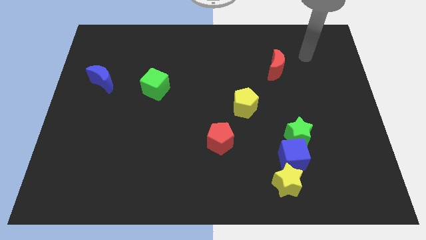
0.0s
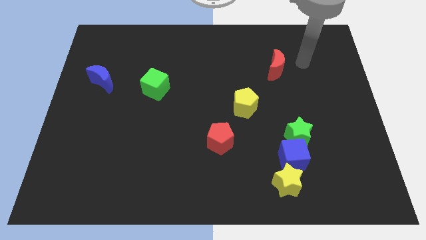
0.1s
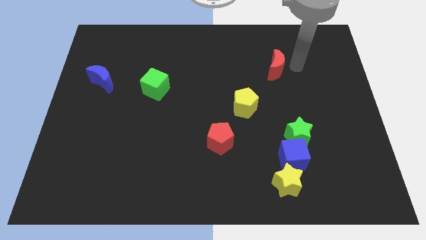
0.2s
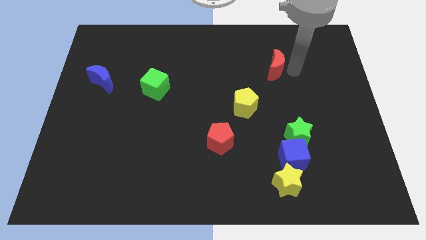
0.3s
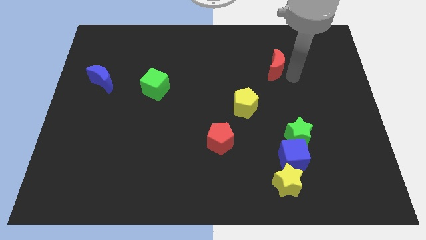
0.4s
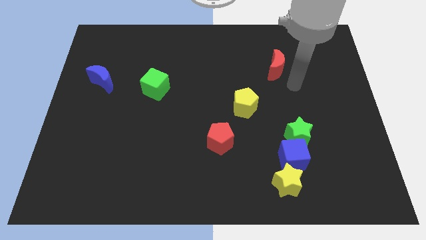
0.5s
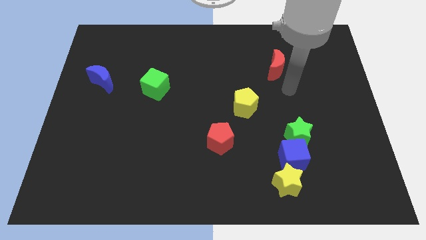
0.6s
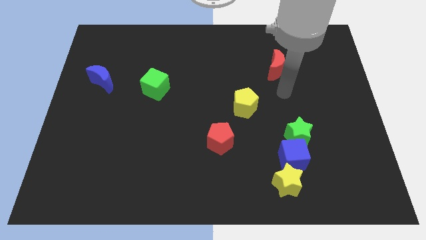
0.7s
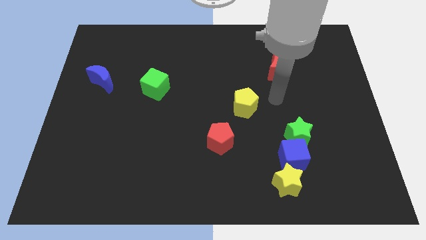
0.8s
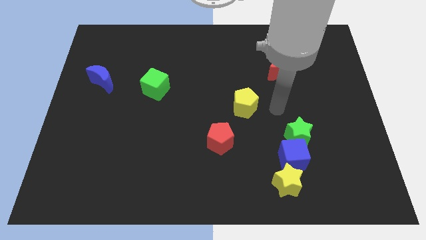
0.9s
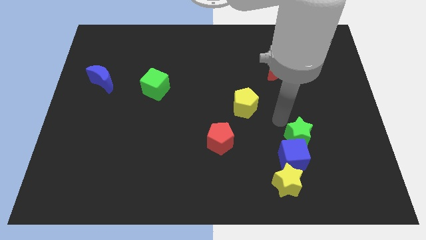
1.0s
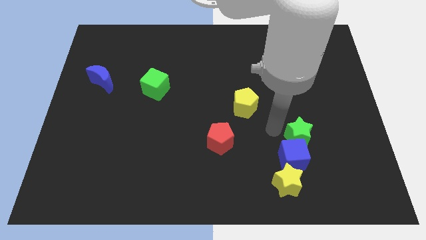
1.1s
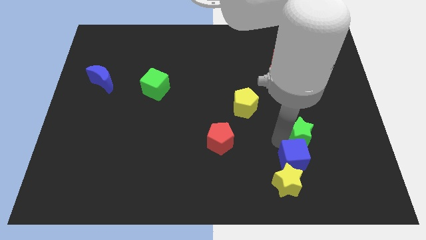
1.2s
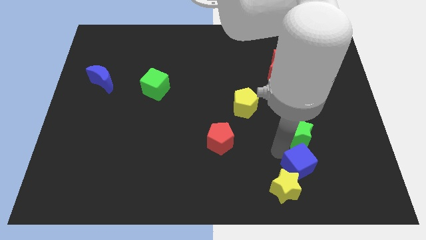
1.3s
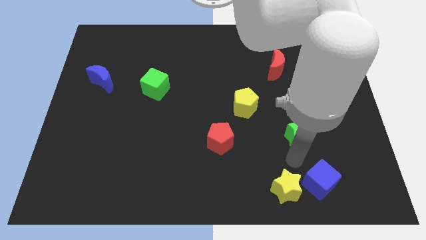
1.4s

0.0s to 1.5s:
move the green star away from the blue cube

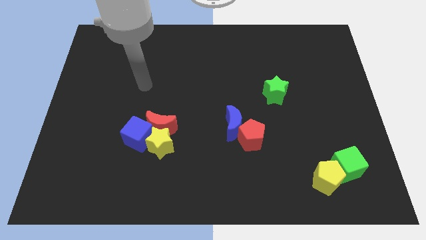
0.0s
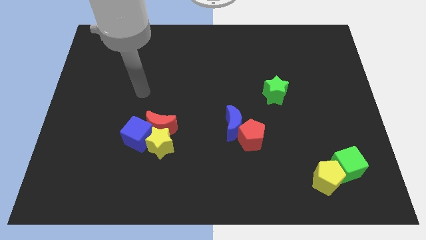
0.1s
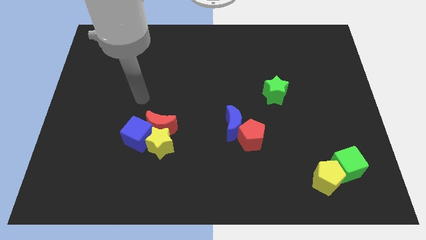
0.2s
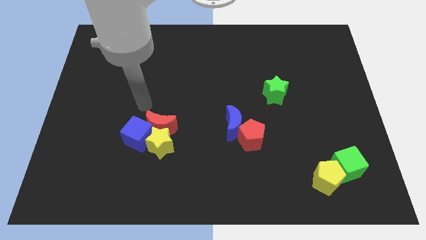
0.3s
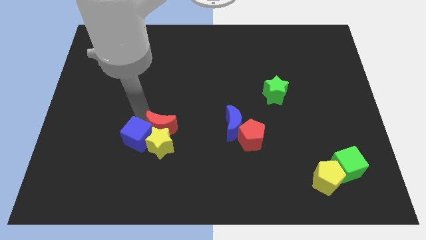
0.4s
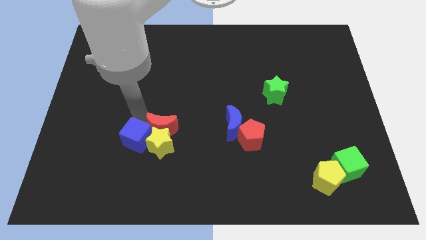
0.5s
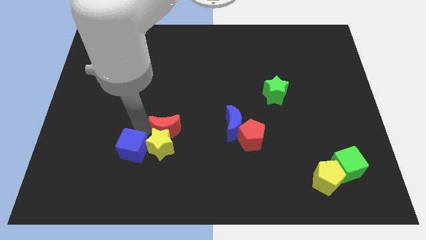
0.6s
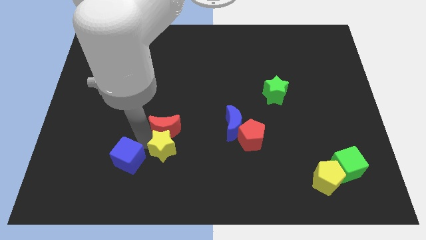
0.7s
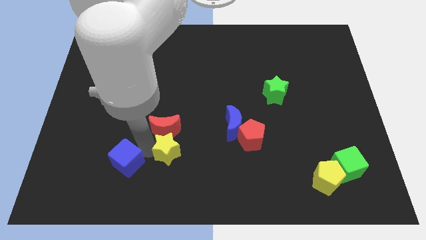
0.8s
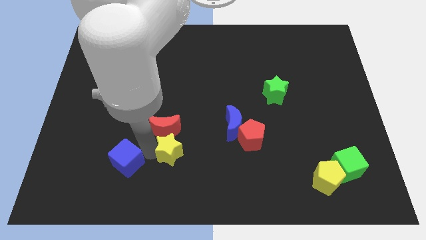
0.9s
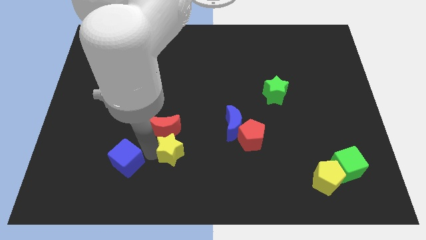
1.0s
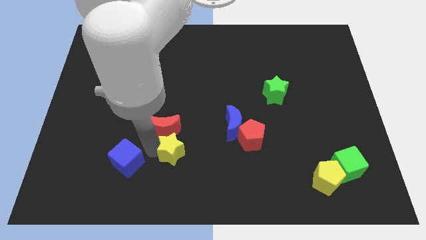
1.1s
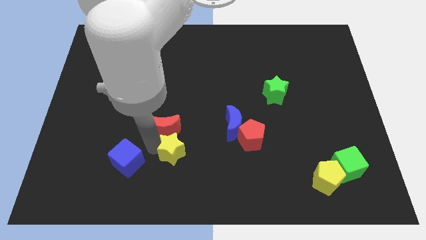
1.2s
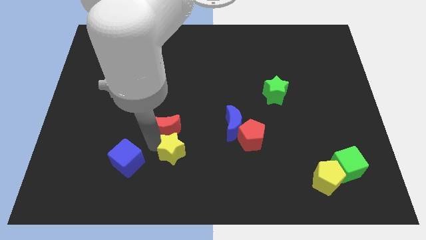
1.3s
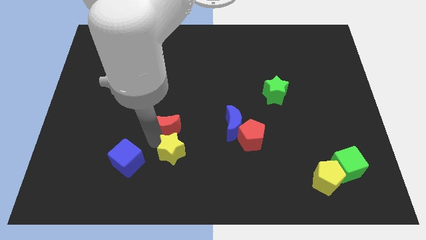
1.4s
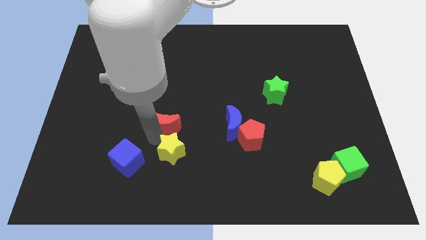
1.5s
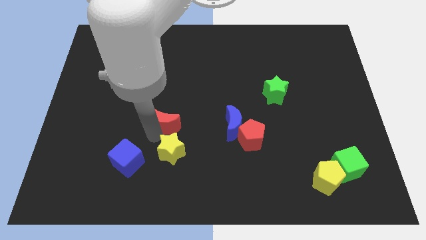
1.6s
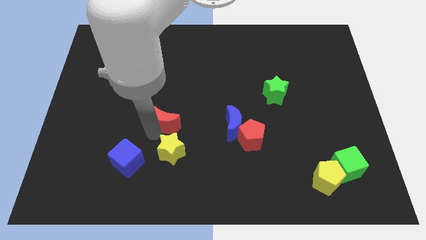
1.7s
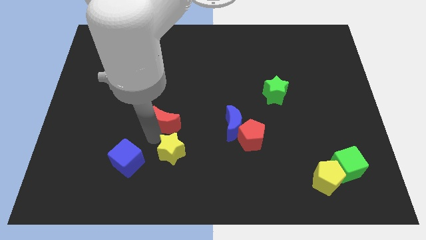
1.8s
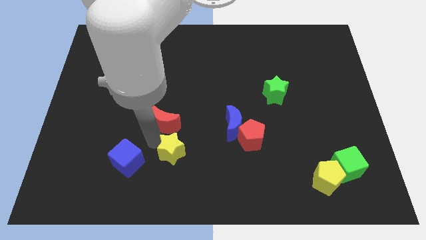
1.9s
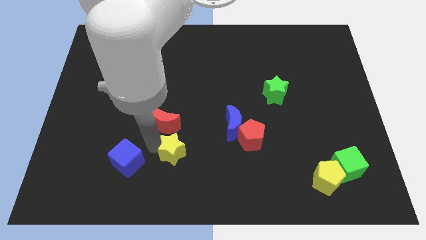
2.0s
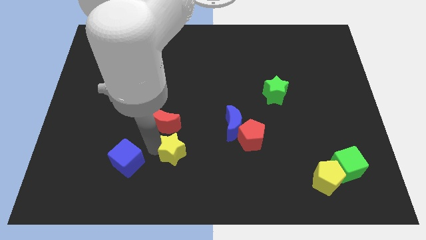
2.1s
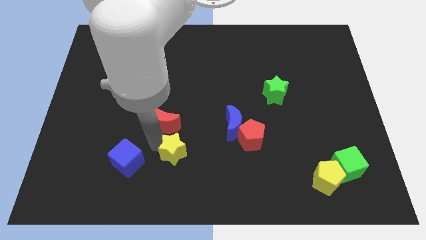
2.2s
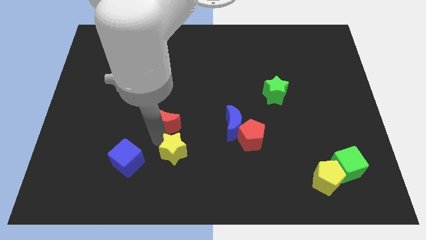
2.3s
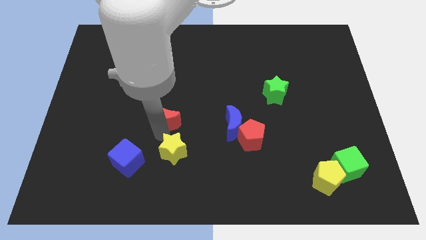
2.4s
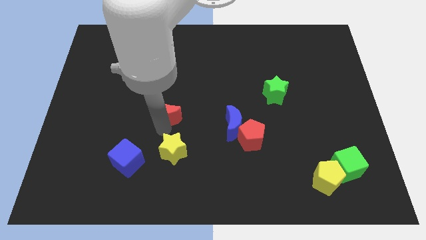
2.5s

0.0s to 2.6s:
separate the red moon from the yellow star and blue cube

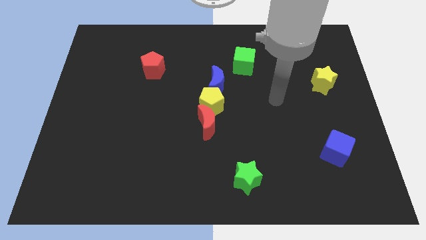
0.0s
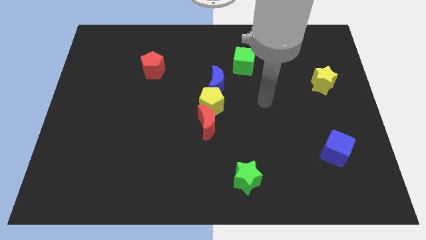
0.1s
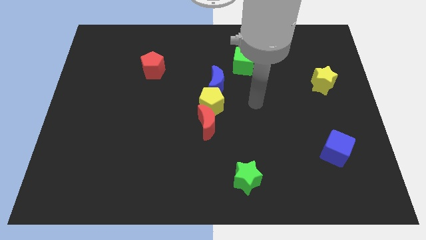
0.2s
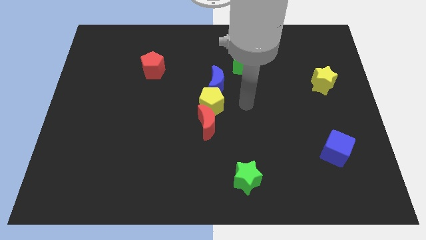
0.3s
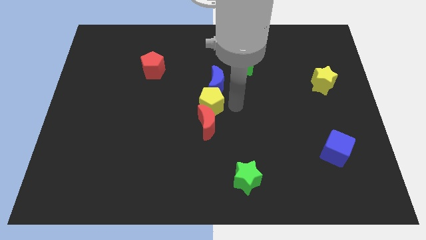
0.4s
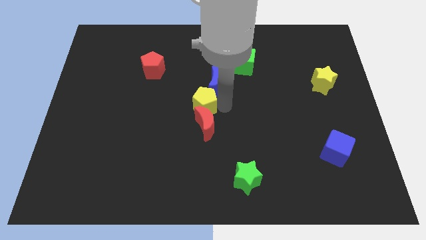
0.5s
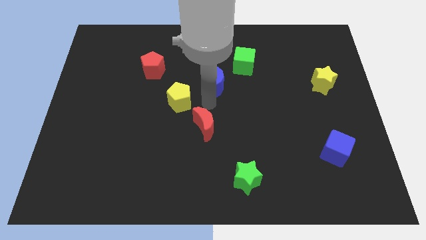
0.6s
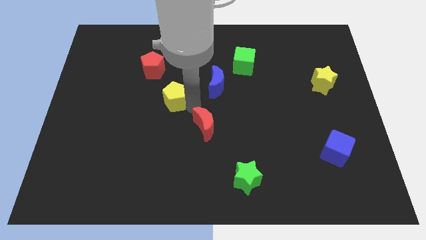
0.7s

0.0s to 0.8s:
separate the red moon from the yellow pentagon

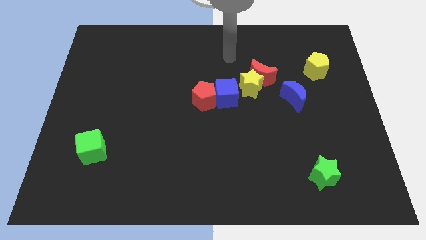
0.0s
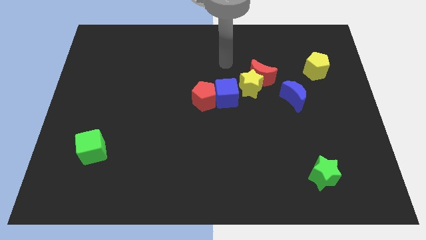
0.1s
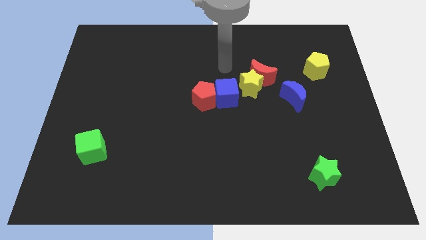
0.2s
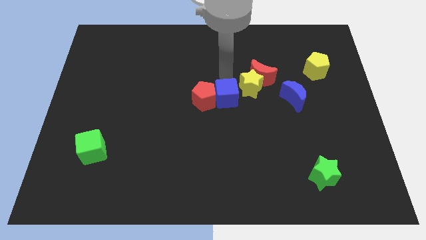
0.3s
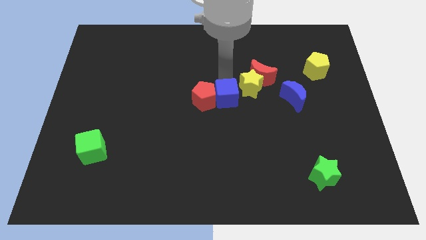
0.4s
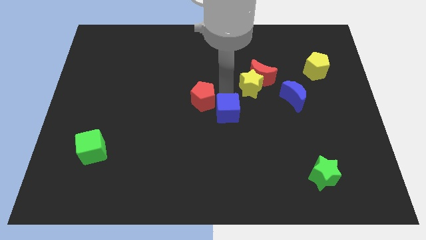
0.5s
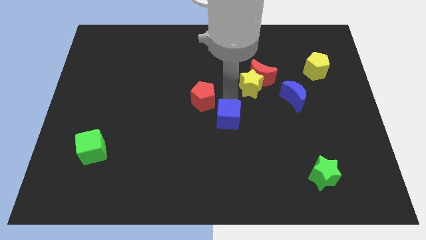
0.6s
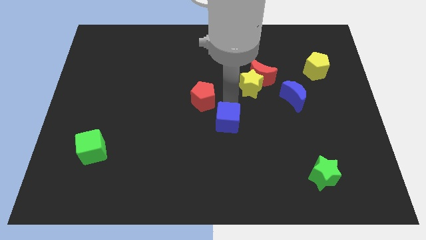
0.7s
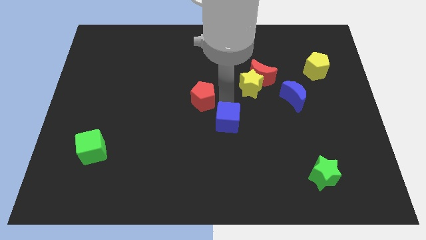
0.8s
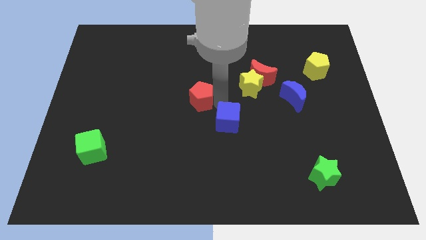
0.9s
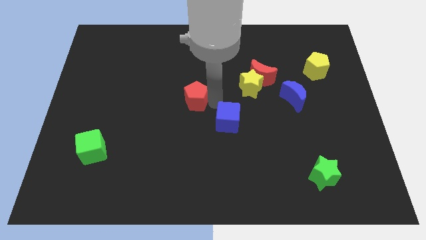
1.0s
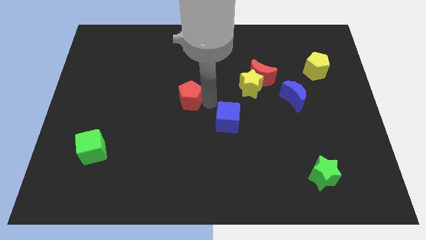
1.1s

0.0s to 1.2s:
pull the red pentagon apart from the blue cube

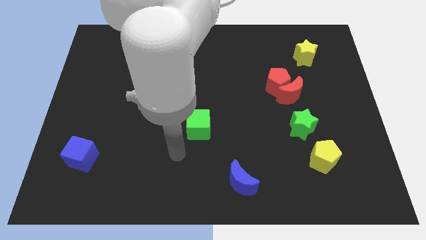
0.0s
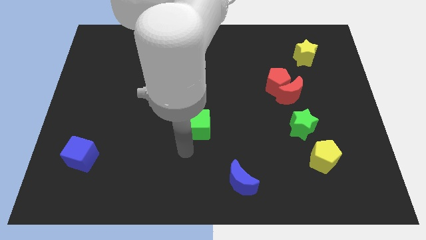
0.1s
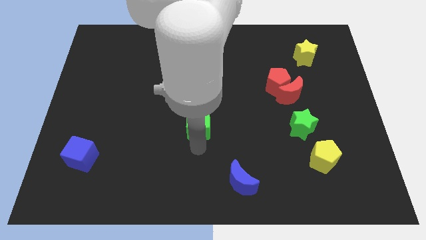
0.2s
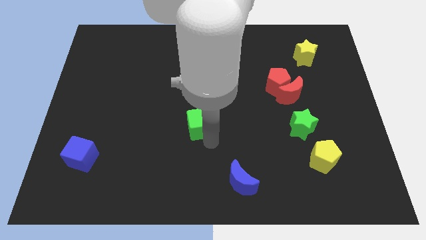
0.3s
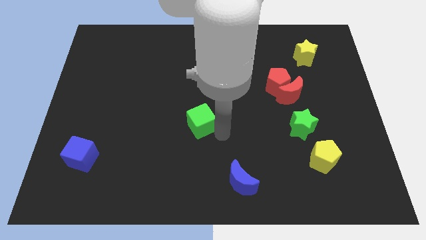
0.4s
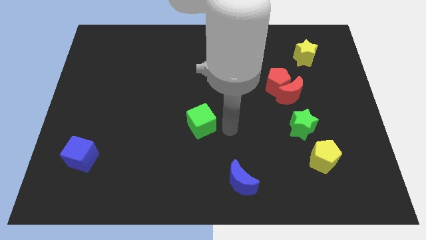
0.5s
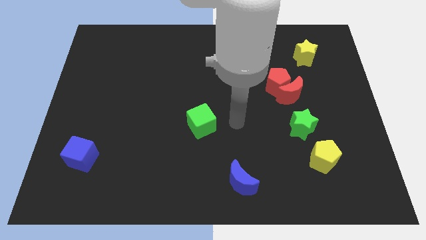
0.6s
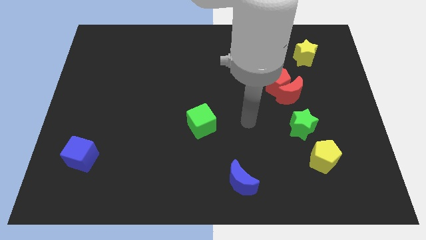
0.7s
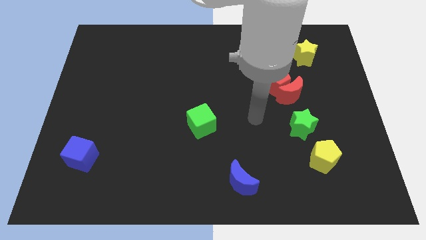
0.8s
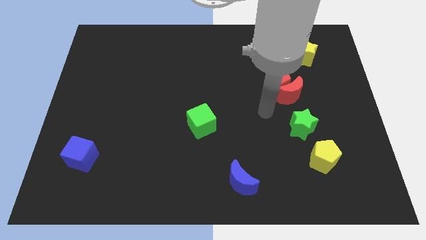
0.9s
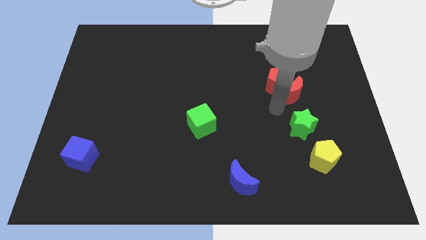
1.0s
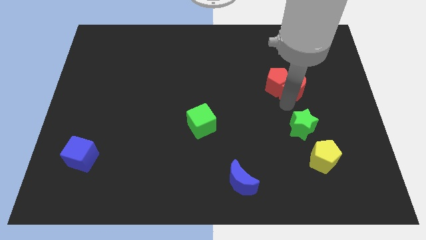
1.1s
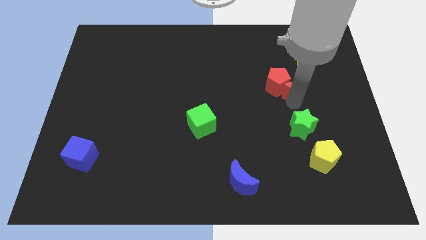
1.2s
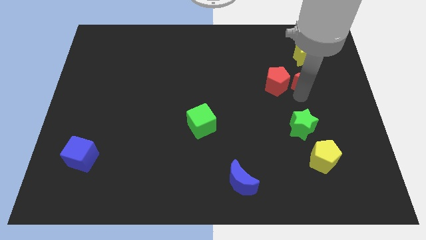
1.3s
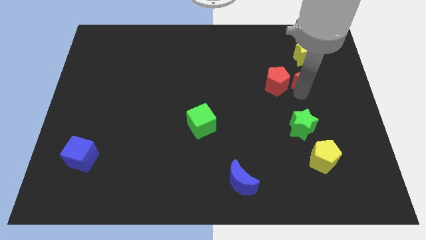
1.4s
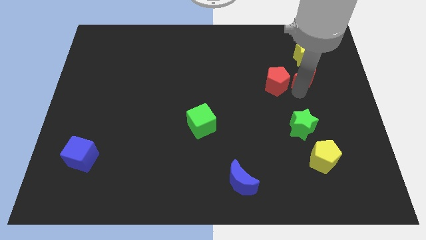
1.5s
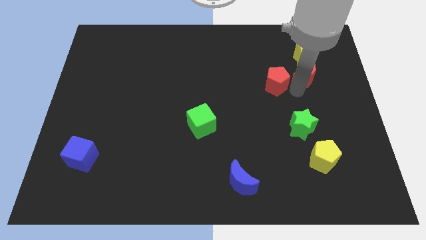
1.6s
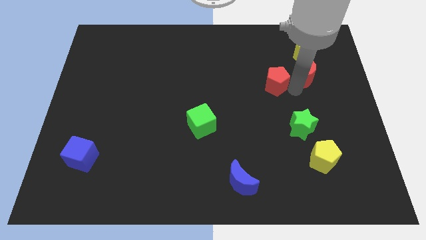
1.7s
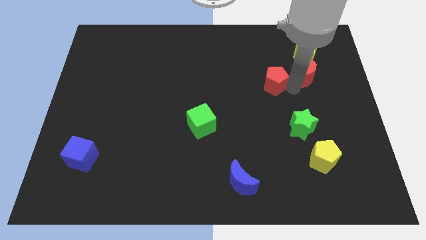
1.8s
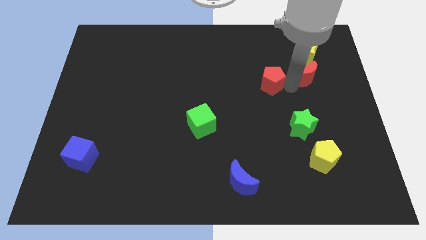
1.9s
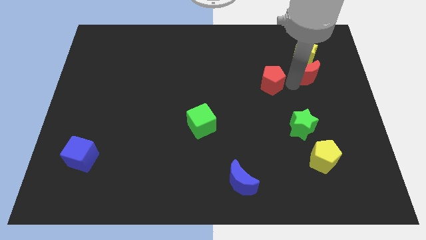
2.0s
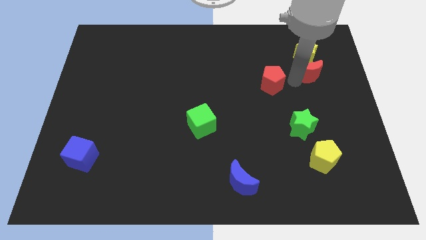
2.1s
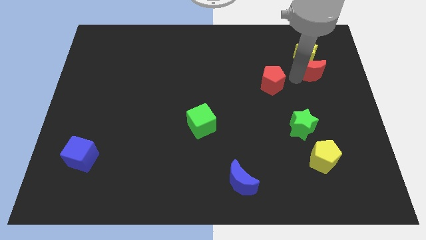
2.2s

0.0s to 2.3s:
move the red pentagon away from the red moon

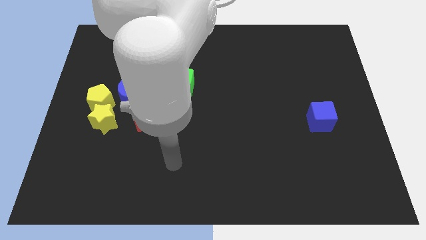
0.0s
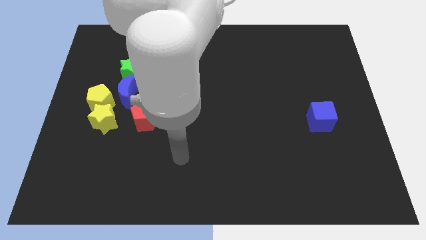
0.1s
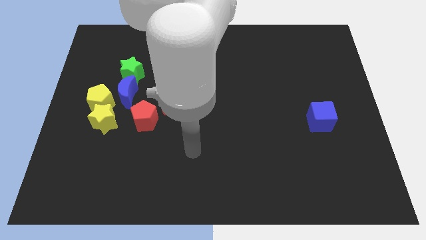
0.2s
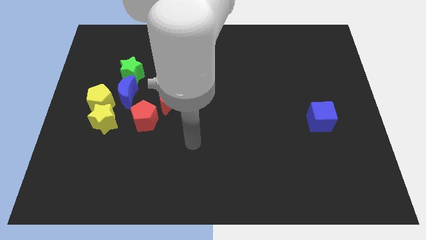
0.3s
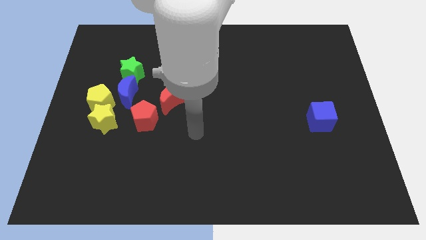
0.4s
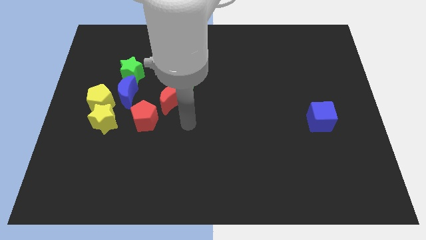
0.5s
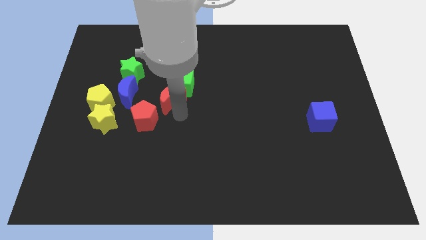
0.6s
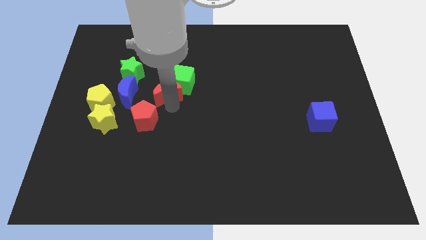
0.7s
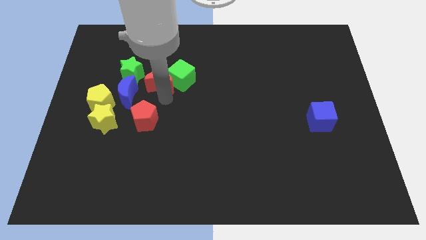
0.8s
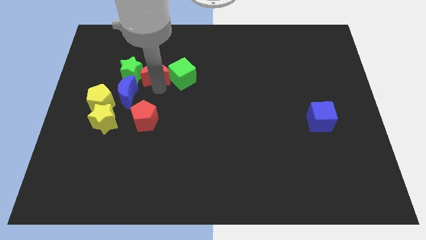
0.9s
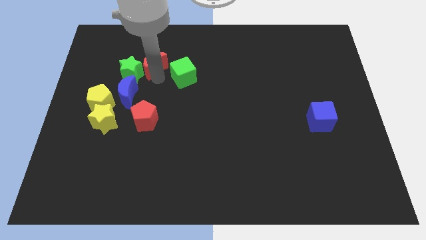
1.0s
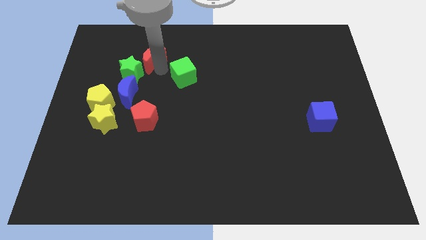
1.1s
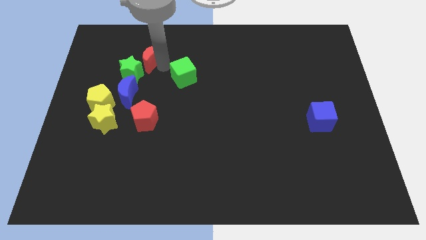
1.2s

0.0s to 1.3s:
move the green cube away from the red moon
